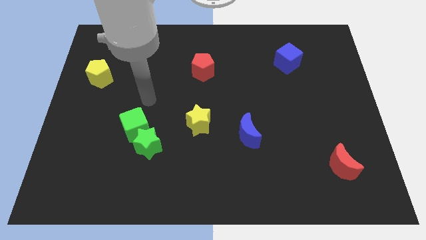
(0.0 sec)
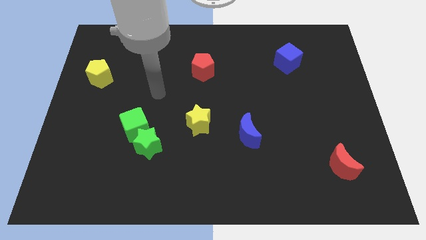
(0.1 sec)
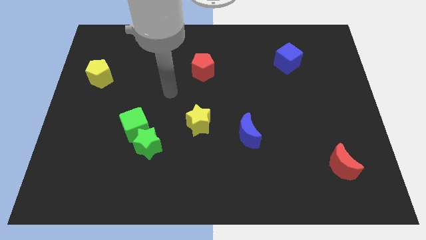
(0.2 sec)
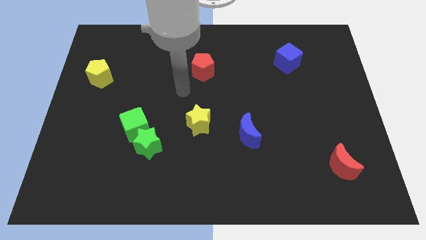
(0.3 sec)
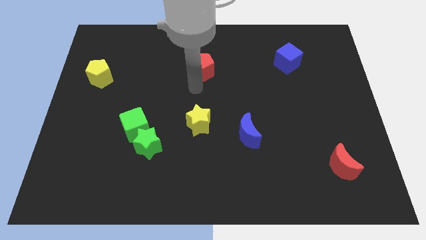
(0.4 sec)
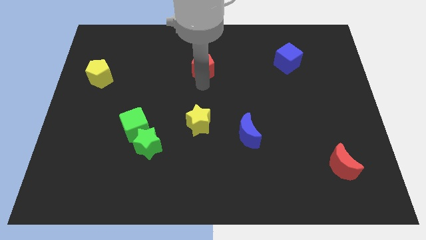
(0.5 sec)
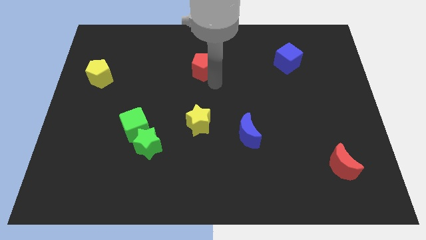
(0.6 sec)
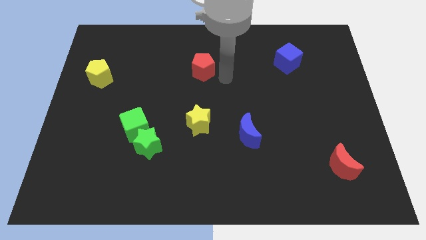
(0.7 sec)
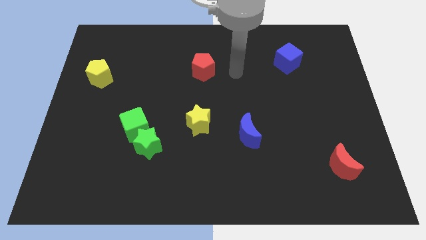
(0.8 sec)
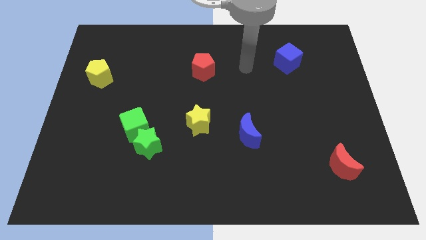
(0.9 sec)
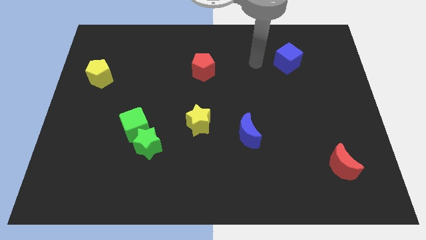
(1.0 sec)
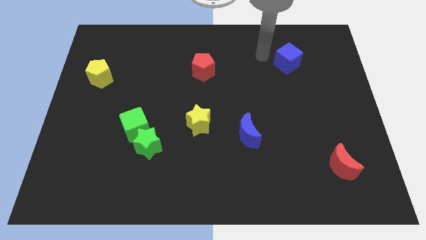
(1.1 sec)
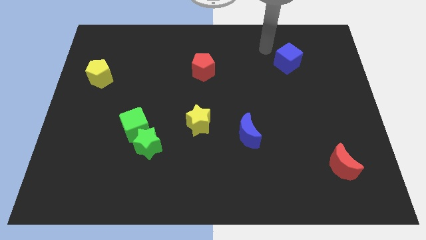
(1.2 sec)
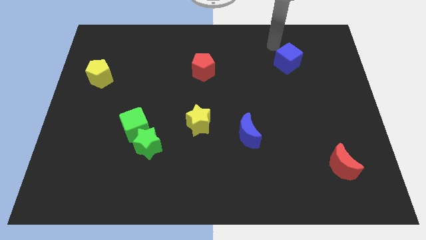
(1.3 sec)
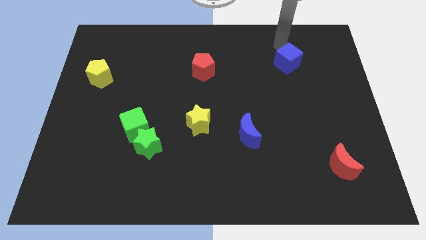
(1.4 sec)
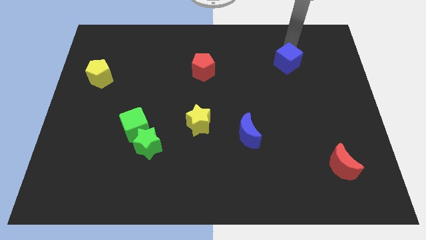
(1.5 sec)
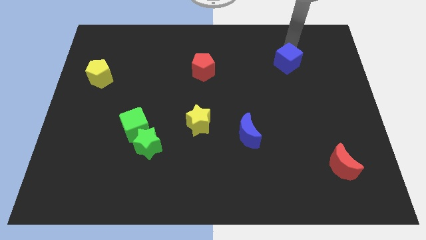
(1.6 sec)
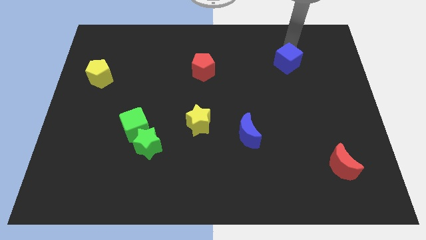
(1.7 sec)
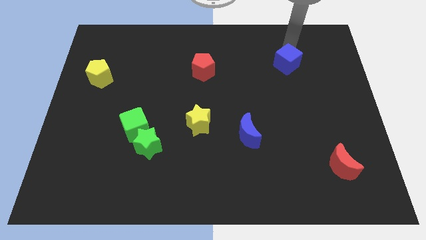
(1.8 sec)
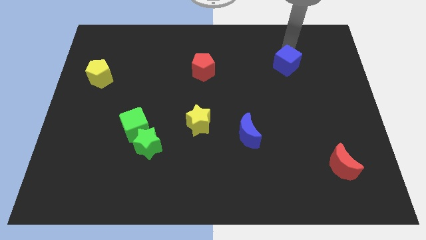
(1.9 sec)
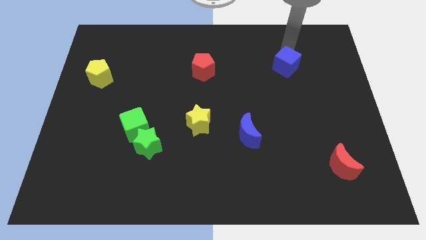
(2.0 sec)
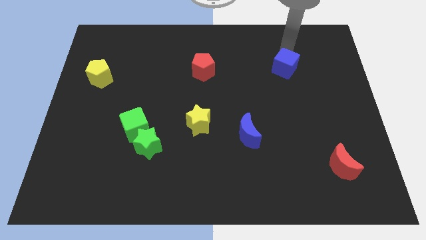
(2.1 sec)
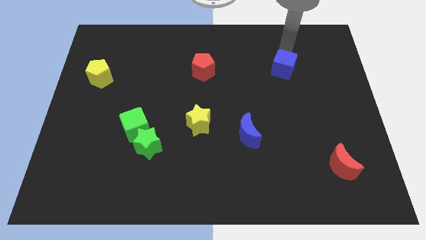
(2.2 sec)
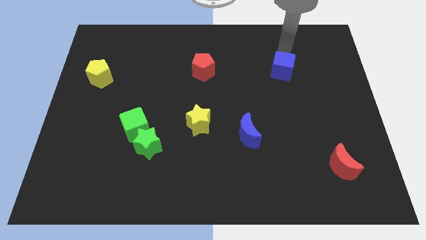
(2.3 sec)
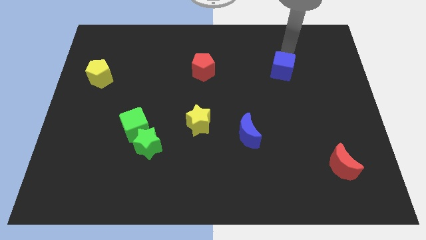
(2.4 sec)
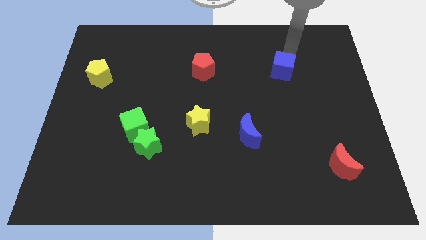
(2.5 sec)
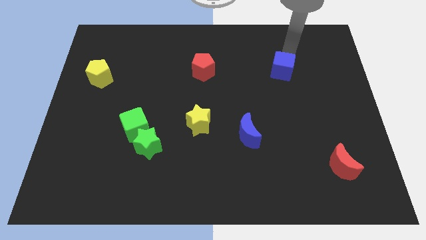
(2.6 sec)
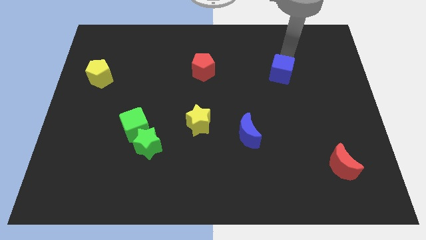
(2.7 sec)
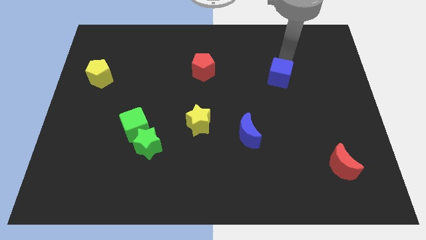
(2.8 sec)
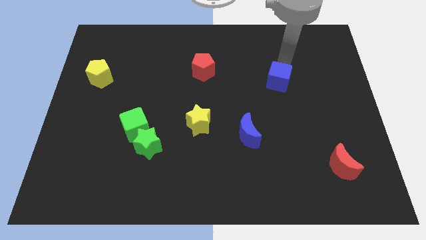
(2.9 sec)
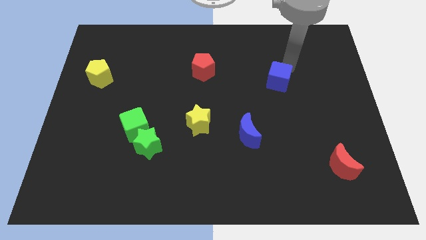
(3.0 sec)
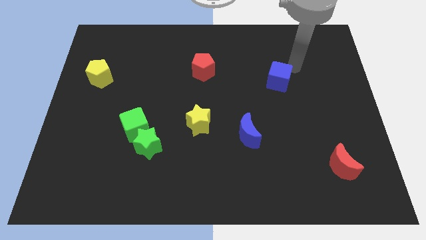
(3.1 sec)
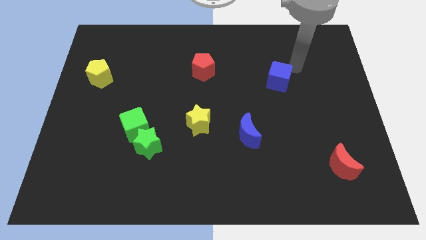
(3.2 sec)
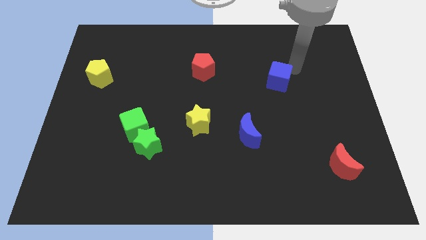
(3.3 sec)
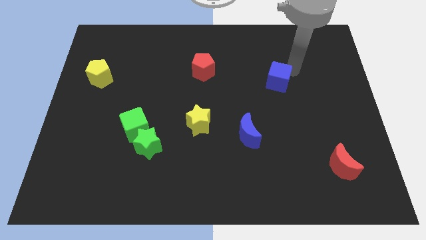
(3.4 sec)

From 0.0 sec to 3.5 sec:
move the blue cube a little down and to the left diagonally

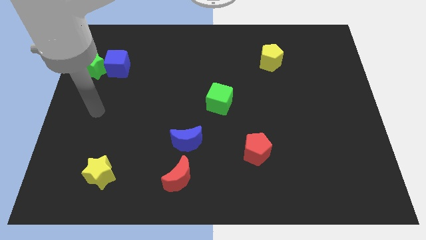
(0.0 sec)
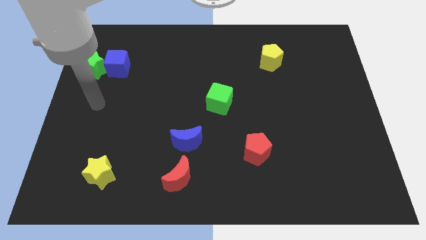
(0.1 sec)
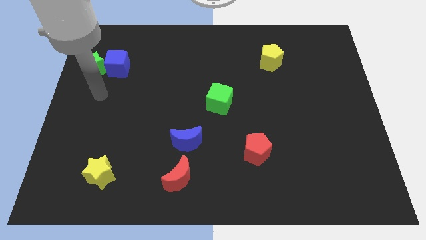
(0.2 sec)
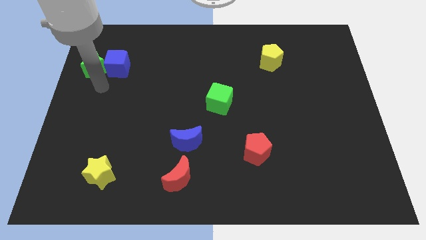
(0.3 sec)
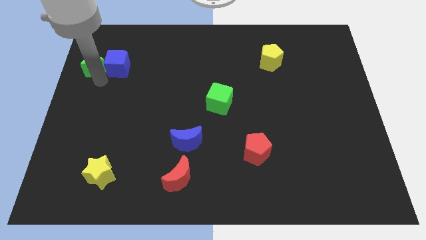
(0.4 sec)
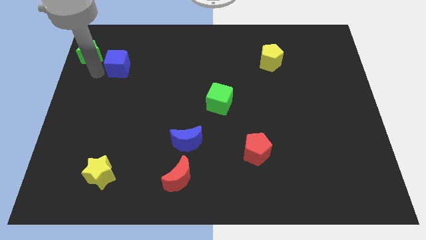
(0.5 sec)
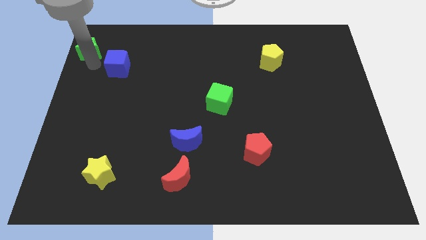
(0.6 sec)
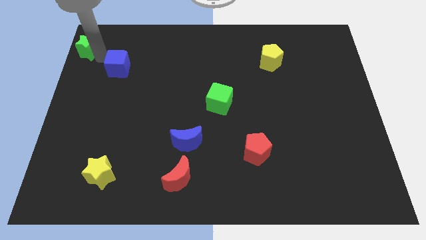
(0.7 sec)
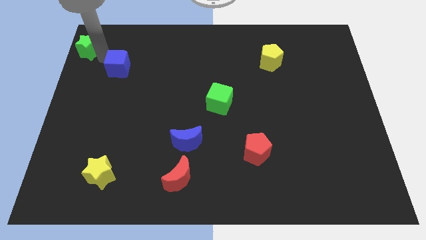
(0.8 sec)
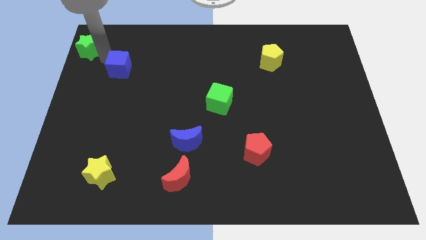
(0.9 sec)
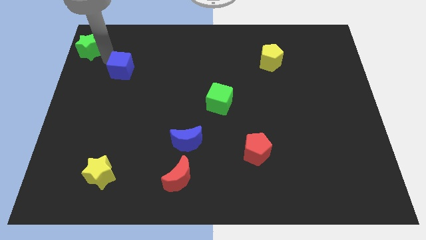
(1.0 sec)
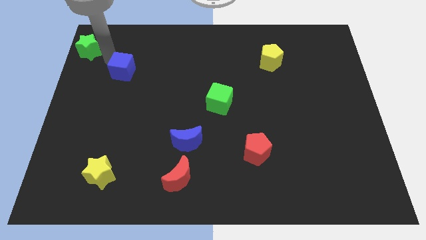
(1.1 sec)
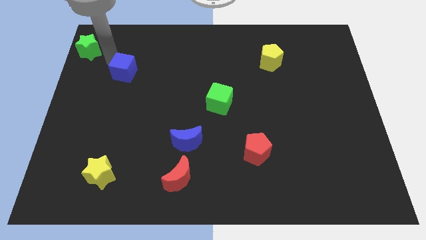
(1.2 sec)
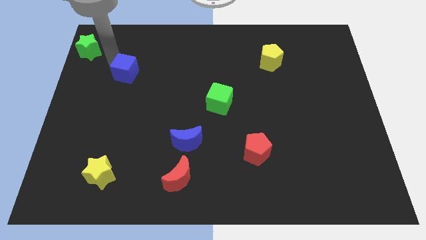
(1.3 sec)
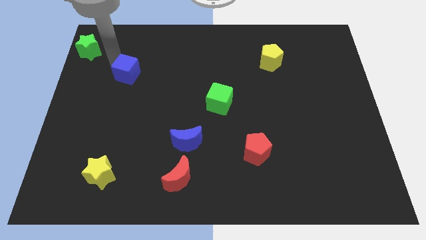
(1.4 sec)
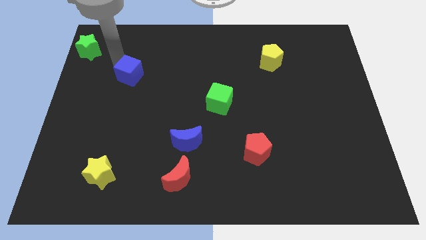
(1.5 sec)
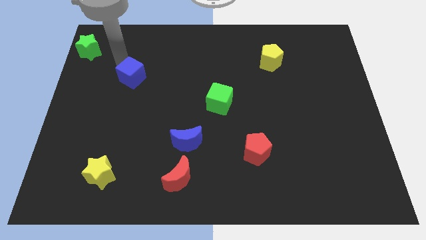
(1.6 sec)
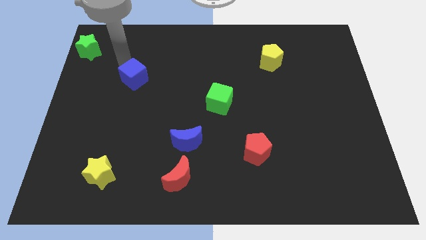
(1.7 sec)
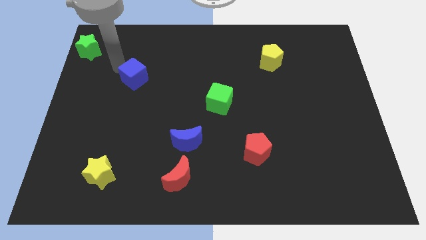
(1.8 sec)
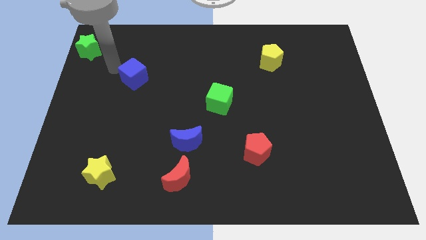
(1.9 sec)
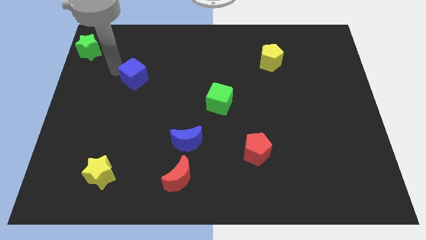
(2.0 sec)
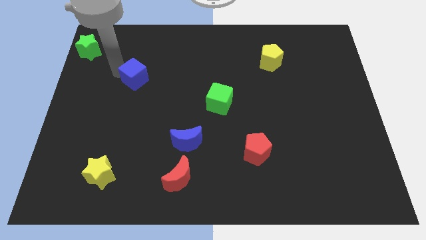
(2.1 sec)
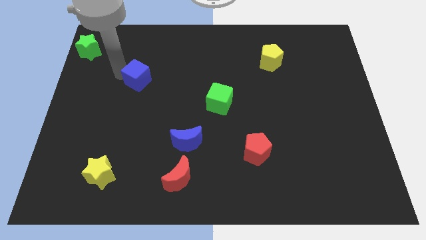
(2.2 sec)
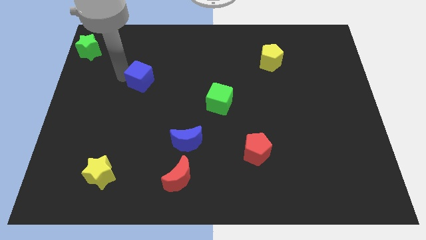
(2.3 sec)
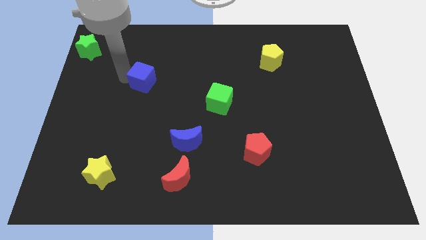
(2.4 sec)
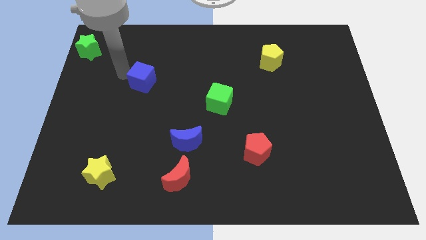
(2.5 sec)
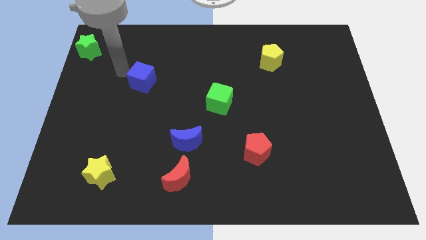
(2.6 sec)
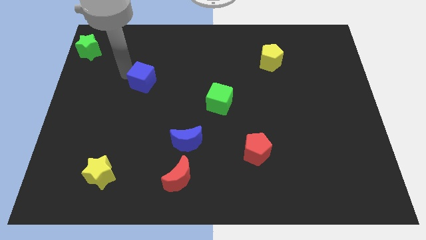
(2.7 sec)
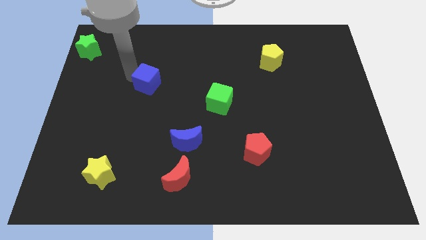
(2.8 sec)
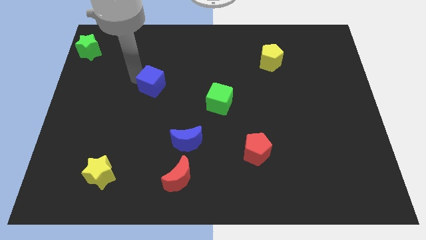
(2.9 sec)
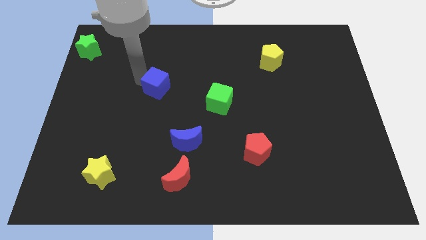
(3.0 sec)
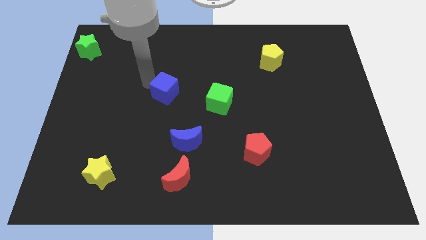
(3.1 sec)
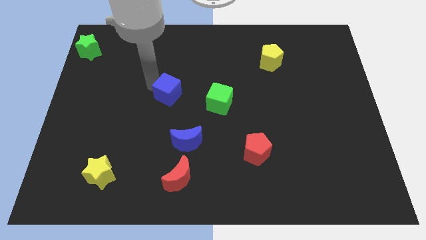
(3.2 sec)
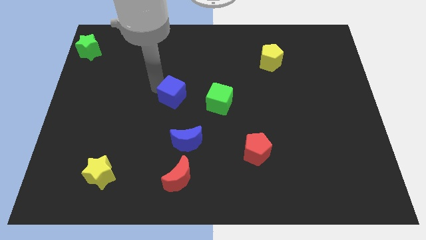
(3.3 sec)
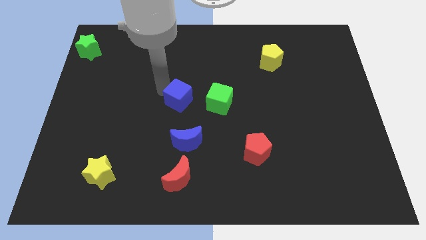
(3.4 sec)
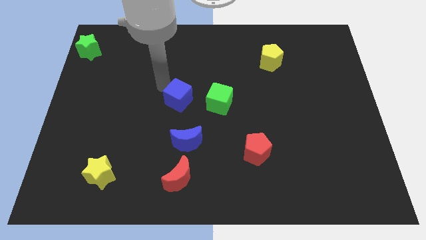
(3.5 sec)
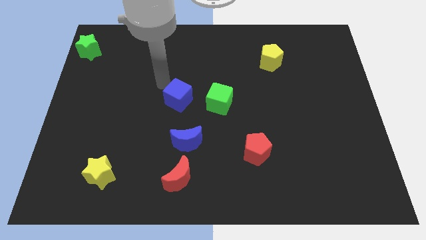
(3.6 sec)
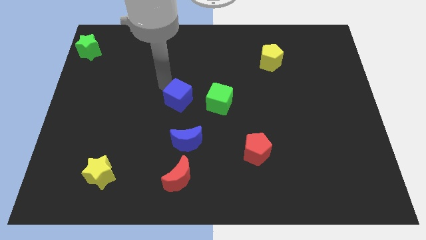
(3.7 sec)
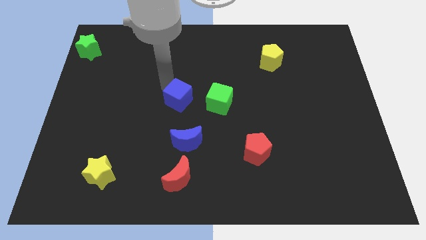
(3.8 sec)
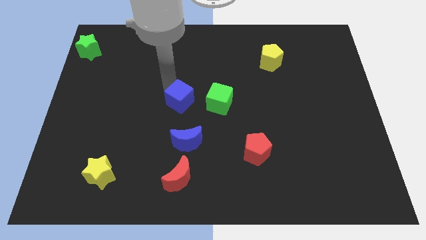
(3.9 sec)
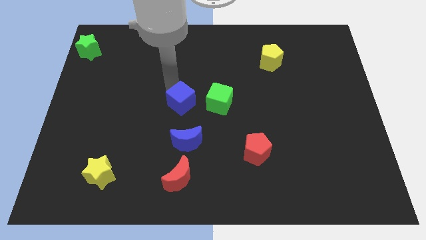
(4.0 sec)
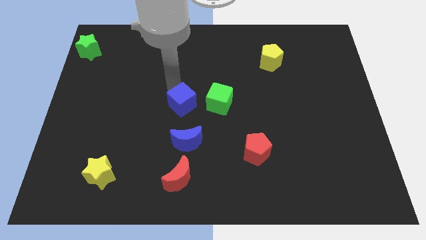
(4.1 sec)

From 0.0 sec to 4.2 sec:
move the blue cube downwards and then right

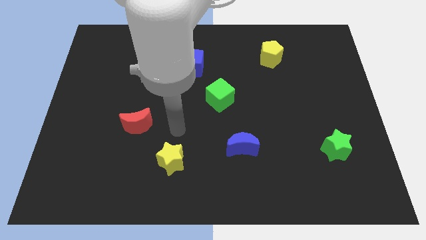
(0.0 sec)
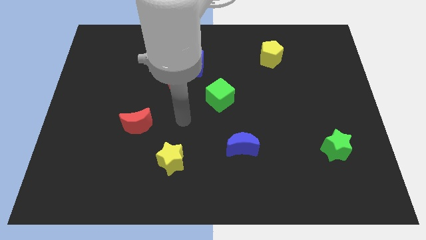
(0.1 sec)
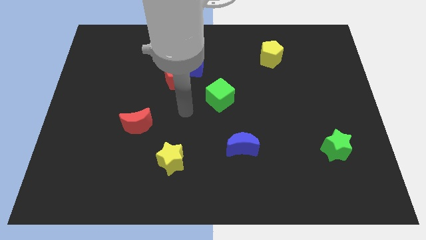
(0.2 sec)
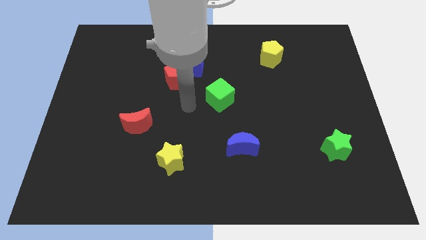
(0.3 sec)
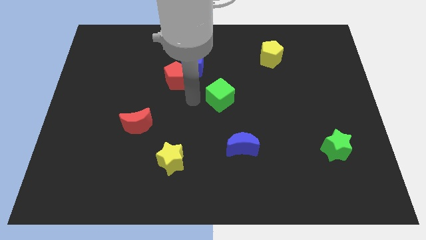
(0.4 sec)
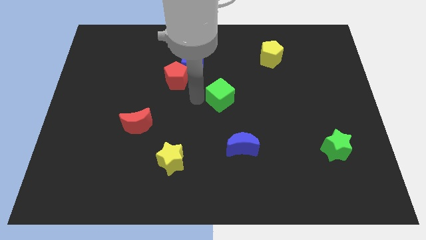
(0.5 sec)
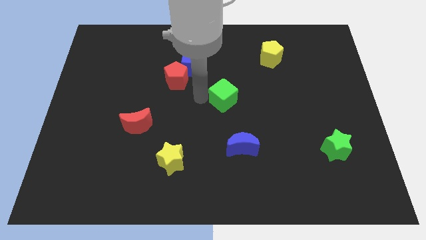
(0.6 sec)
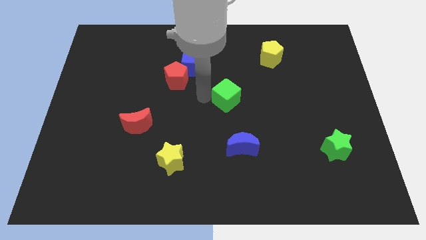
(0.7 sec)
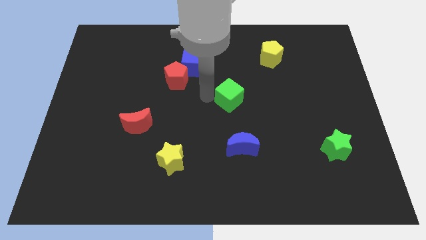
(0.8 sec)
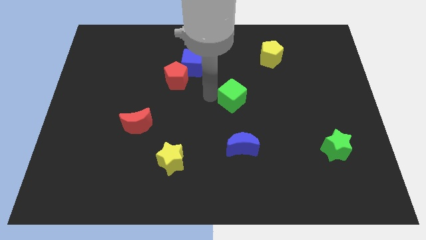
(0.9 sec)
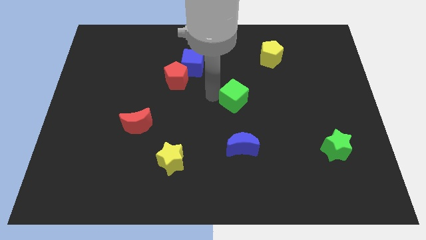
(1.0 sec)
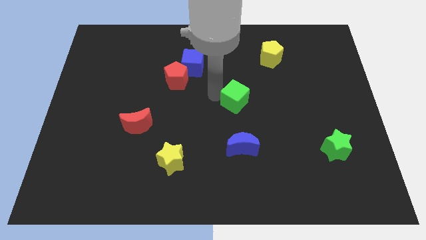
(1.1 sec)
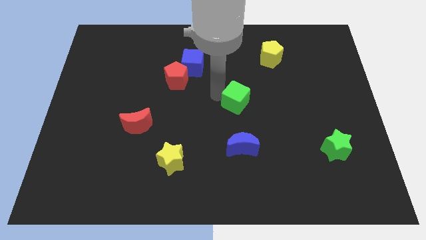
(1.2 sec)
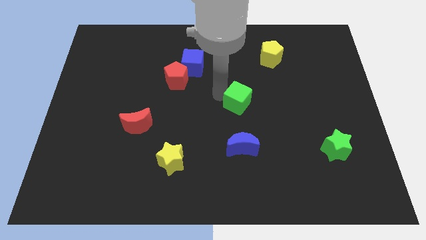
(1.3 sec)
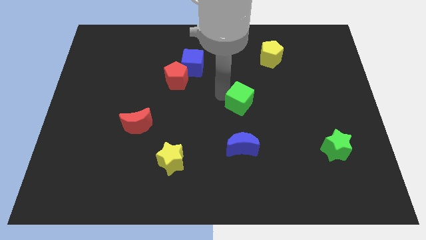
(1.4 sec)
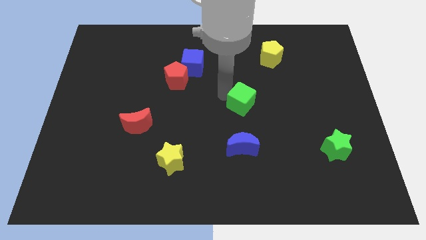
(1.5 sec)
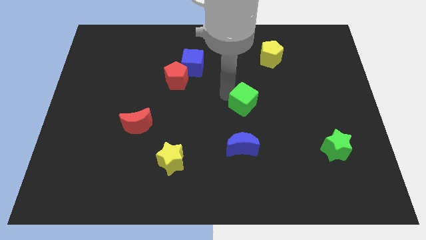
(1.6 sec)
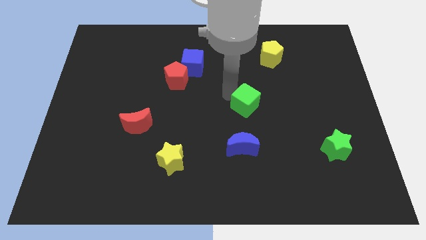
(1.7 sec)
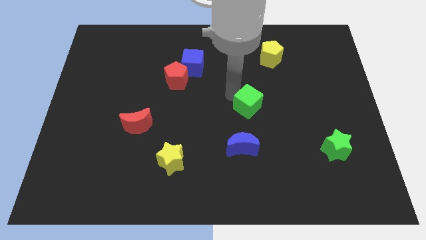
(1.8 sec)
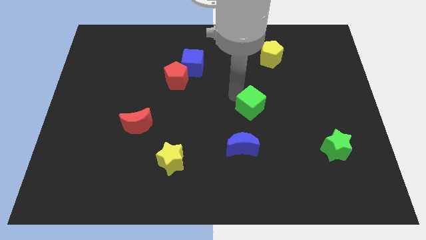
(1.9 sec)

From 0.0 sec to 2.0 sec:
push the green cube slightly right
